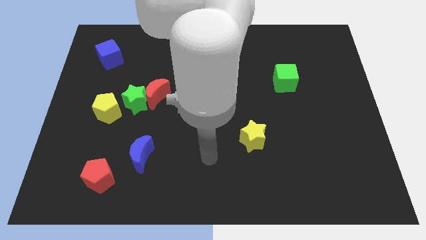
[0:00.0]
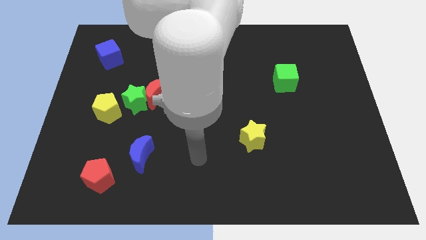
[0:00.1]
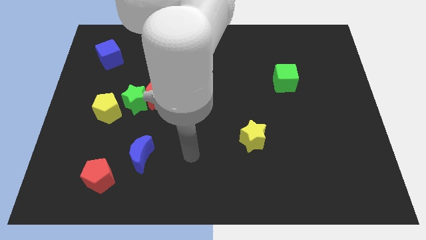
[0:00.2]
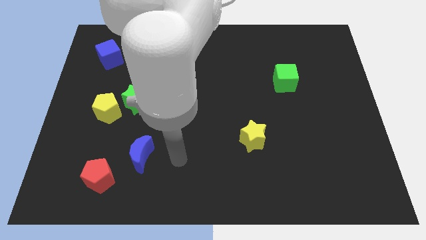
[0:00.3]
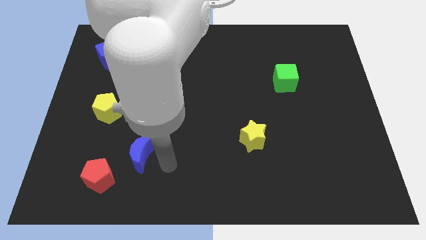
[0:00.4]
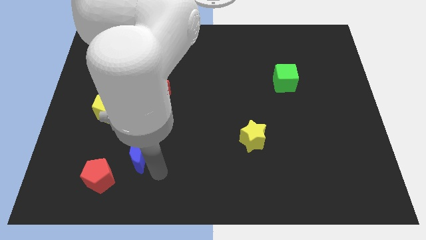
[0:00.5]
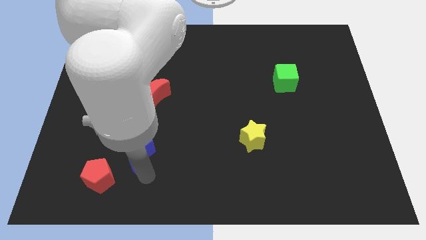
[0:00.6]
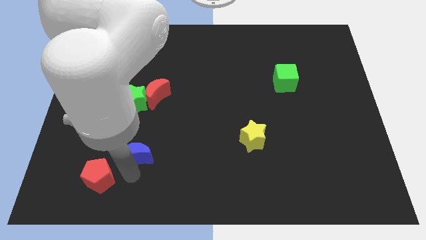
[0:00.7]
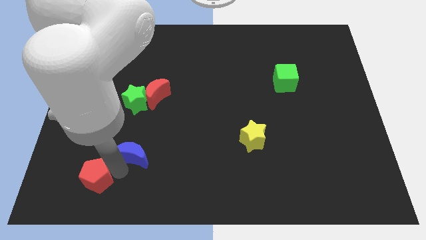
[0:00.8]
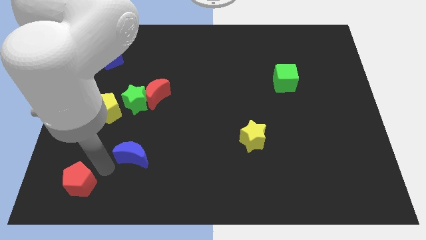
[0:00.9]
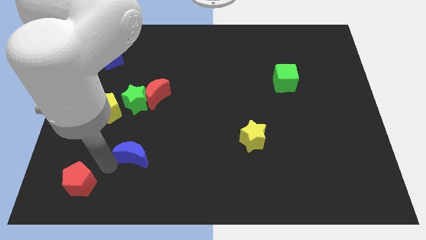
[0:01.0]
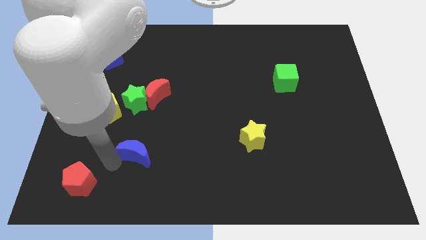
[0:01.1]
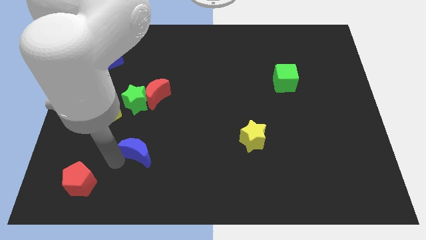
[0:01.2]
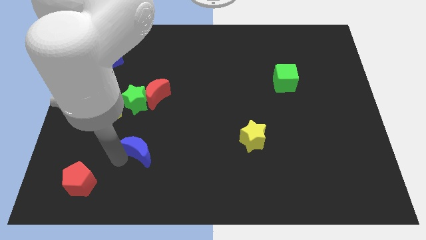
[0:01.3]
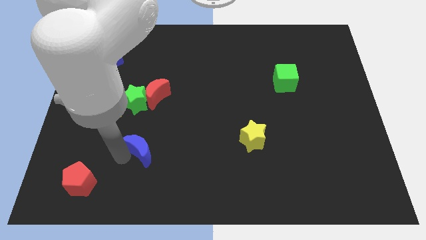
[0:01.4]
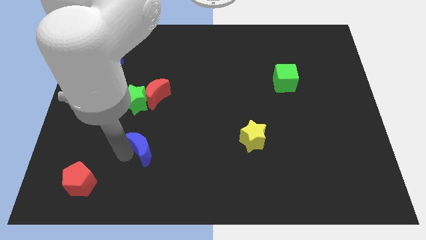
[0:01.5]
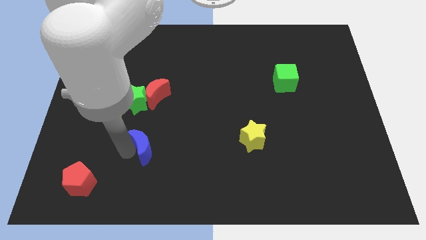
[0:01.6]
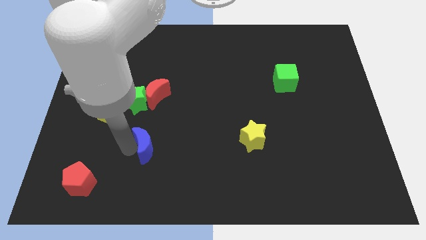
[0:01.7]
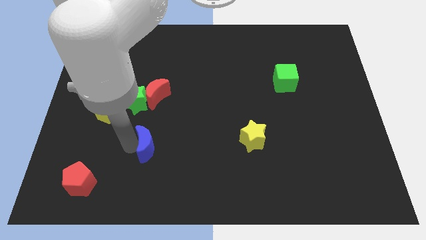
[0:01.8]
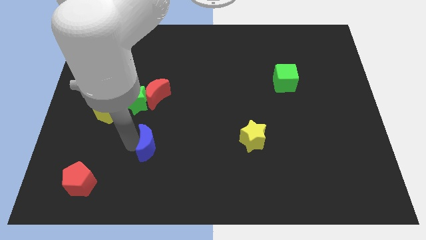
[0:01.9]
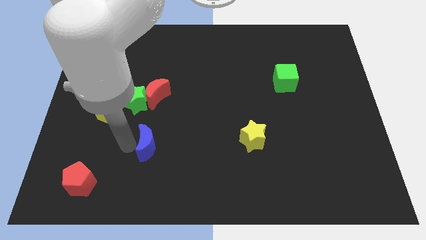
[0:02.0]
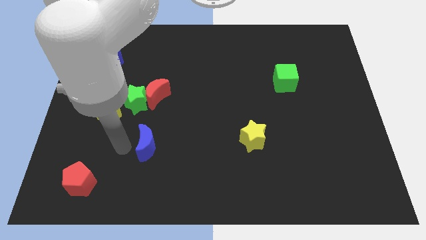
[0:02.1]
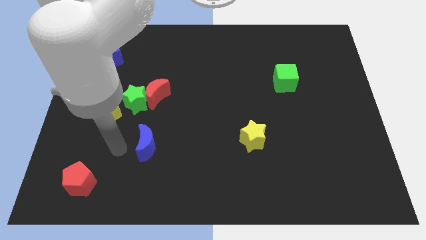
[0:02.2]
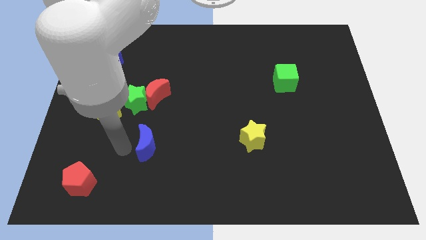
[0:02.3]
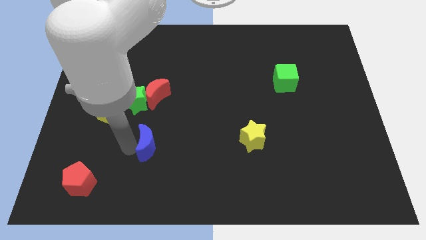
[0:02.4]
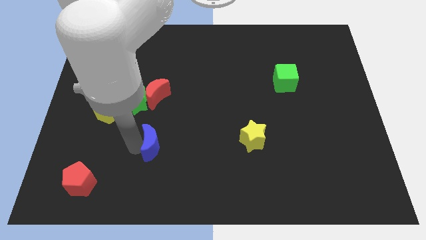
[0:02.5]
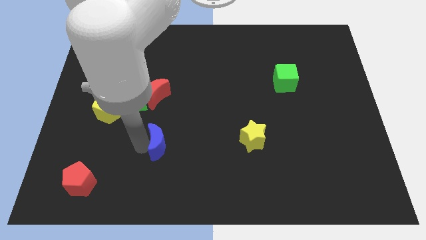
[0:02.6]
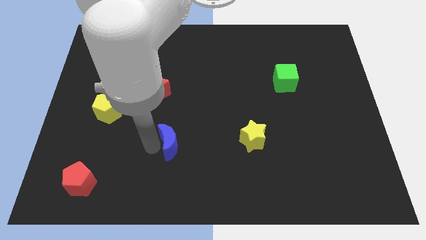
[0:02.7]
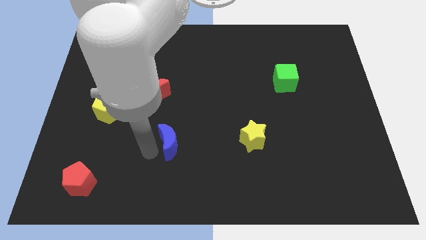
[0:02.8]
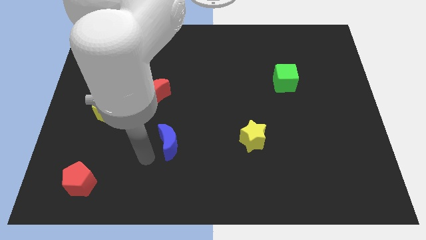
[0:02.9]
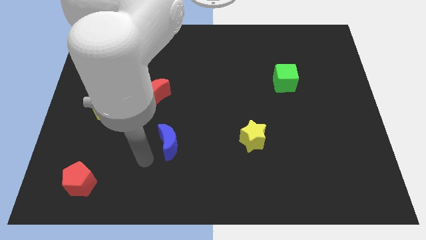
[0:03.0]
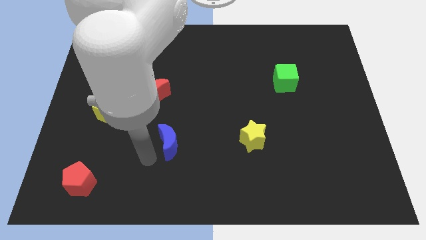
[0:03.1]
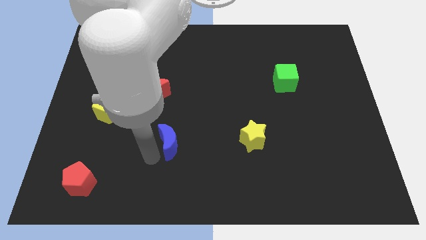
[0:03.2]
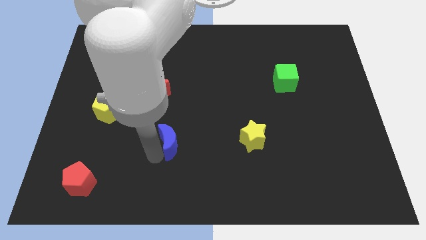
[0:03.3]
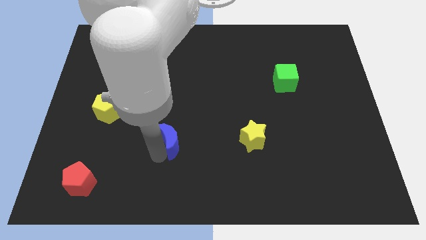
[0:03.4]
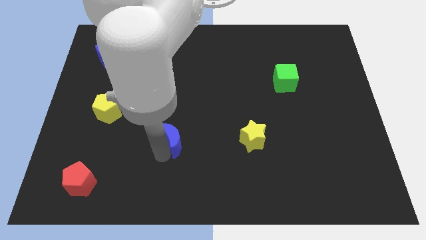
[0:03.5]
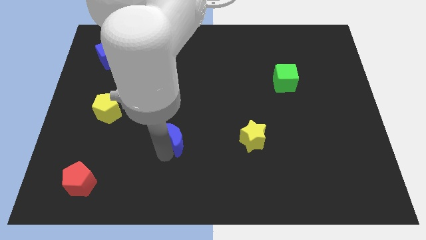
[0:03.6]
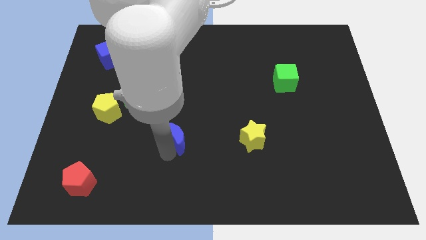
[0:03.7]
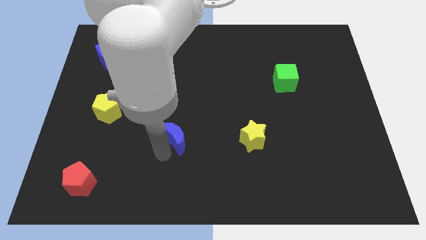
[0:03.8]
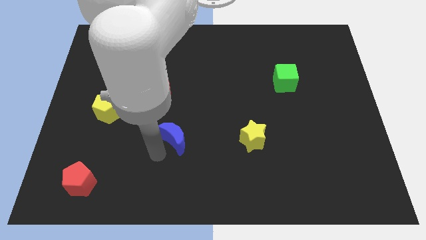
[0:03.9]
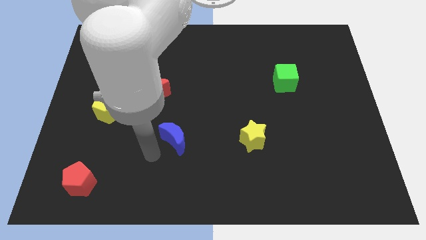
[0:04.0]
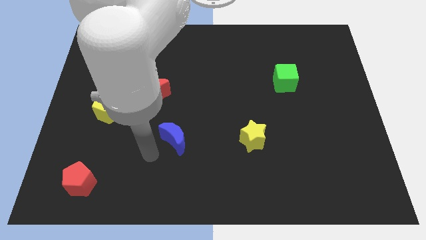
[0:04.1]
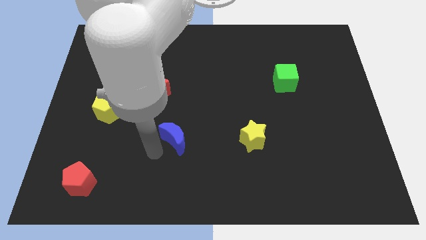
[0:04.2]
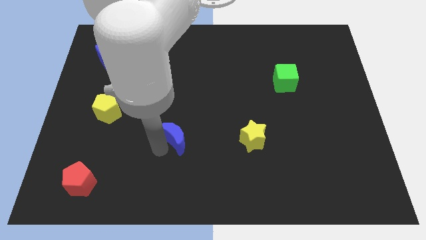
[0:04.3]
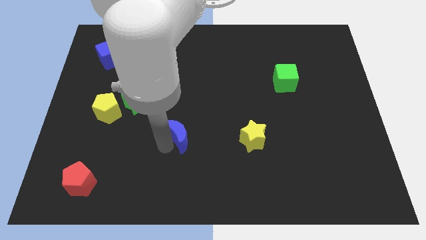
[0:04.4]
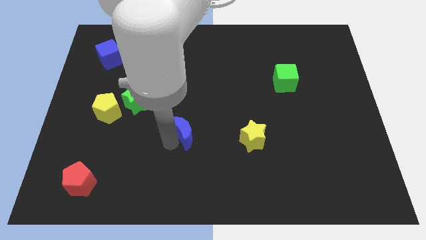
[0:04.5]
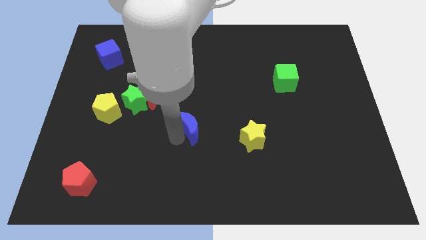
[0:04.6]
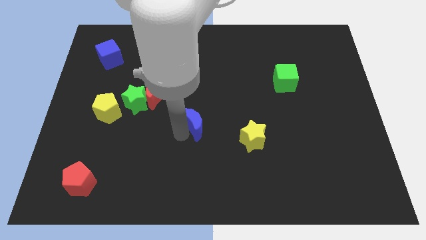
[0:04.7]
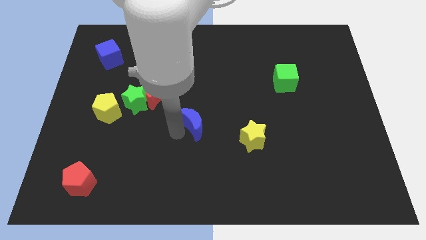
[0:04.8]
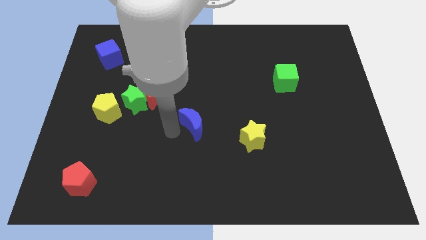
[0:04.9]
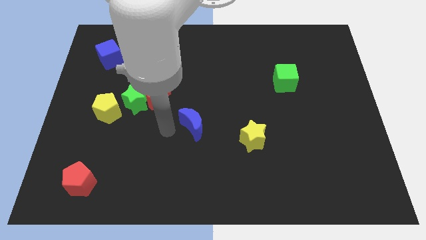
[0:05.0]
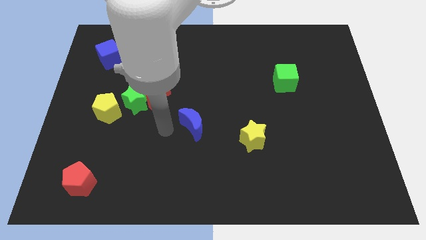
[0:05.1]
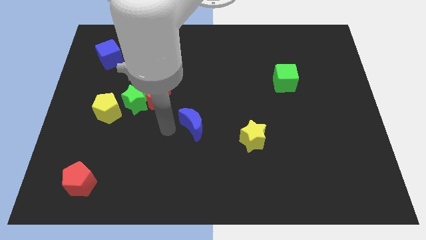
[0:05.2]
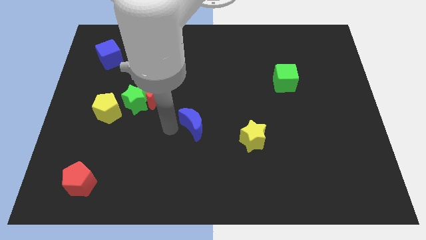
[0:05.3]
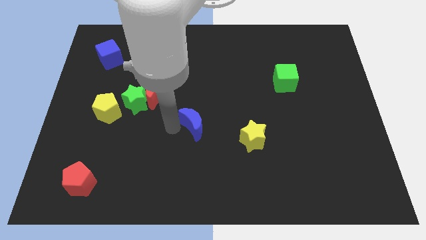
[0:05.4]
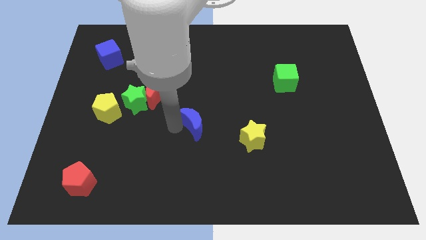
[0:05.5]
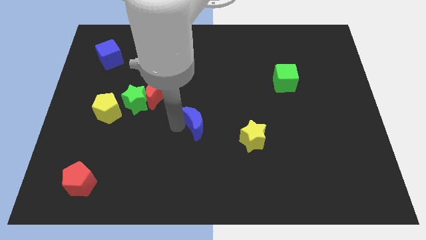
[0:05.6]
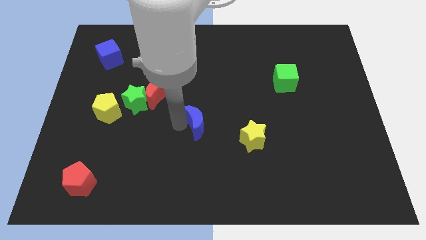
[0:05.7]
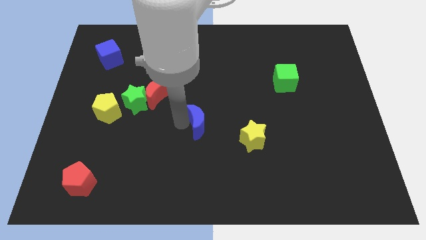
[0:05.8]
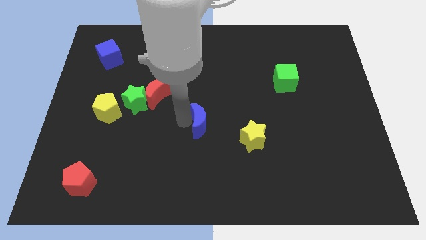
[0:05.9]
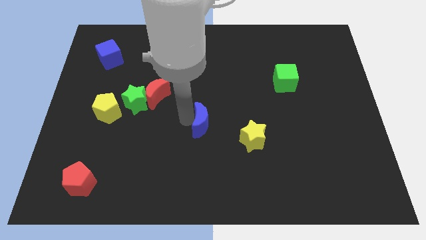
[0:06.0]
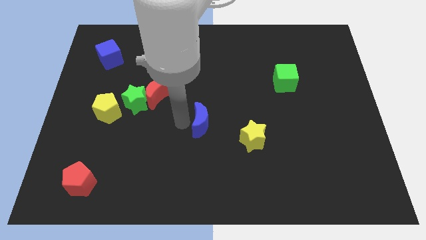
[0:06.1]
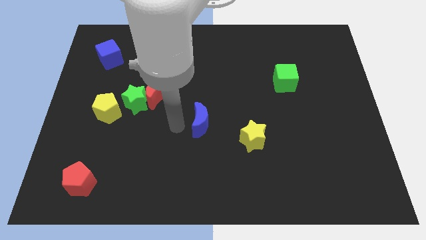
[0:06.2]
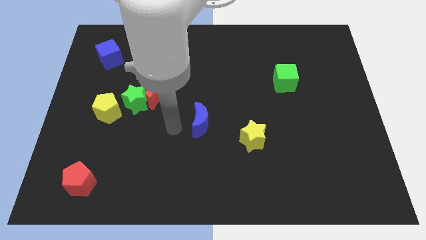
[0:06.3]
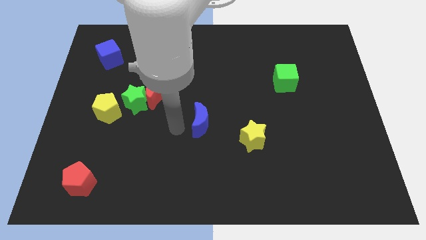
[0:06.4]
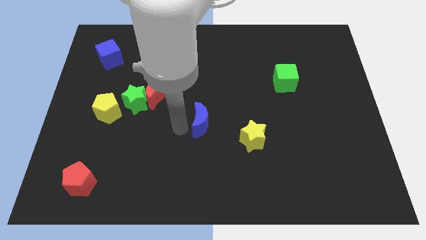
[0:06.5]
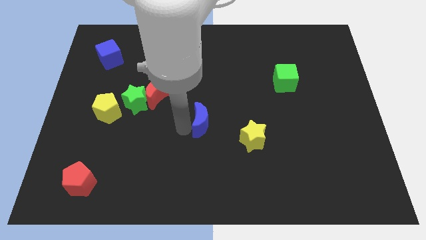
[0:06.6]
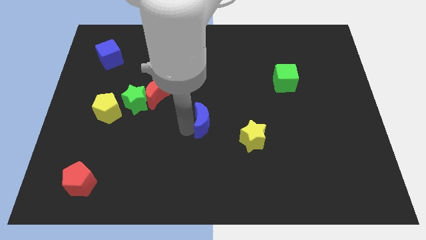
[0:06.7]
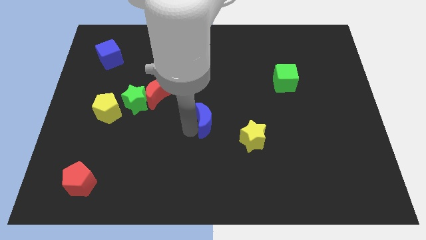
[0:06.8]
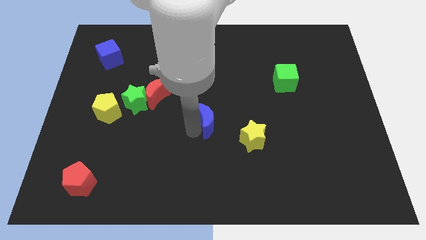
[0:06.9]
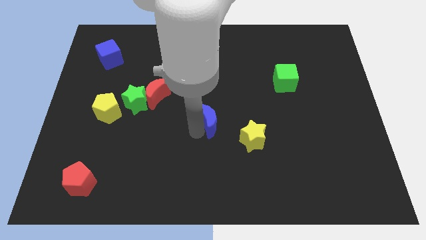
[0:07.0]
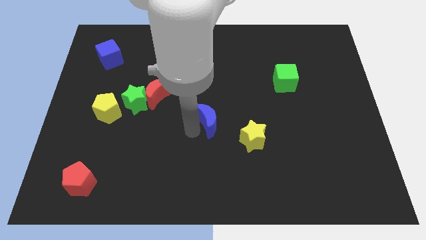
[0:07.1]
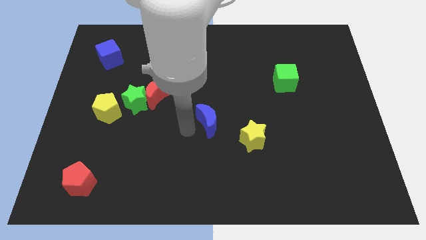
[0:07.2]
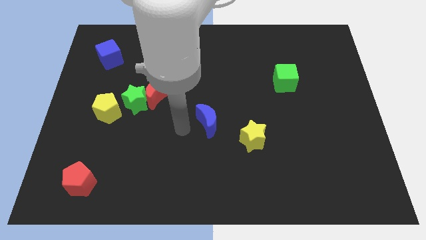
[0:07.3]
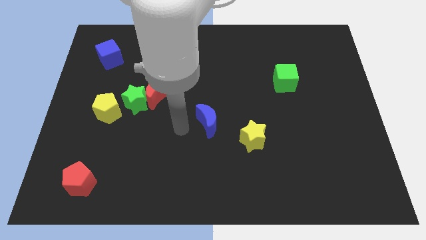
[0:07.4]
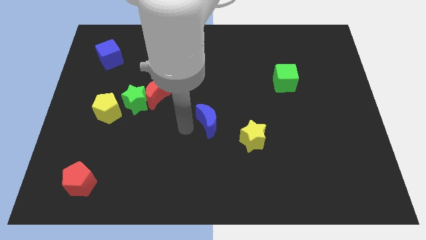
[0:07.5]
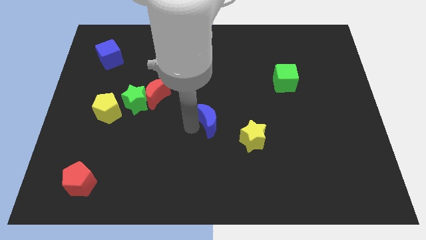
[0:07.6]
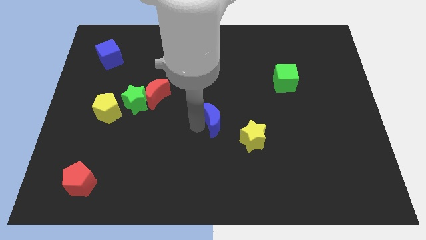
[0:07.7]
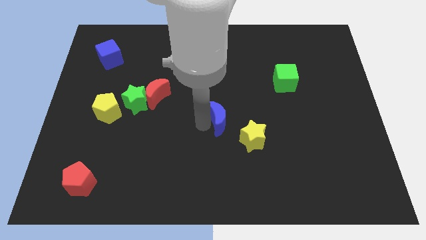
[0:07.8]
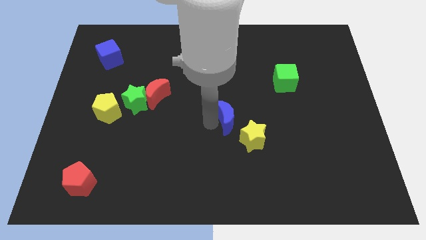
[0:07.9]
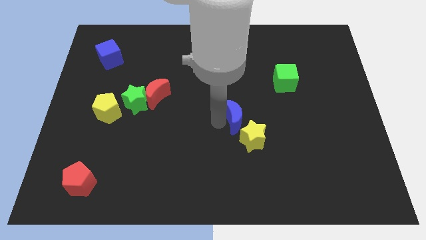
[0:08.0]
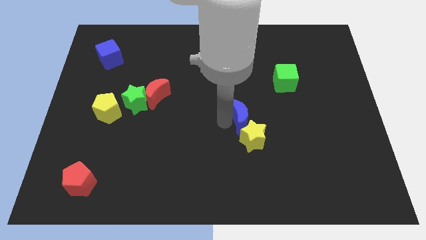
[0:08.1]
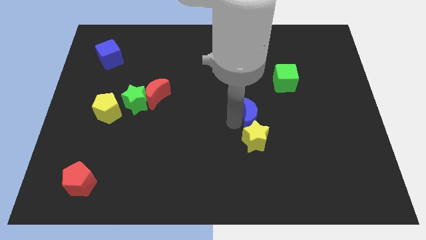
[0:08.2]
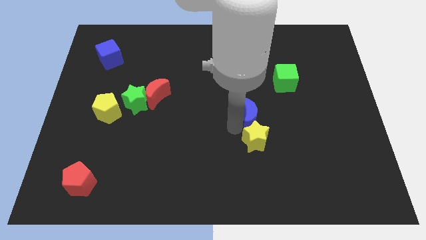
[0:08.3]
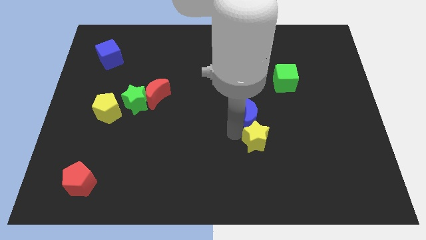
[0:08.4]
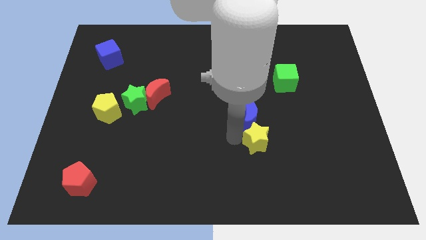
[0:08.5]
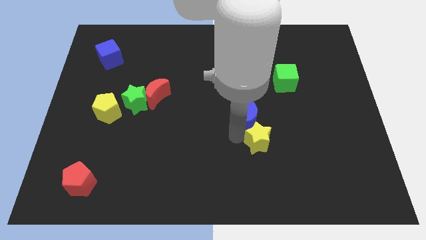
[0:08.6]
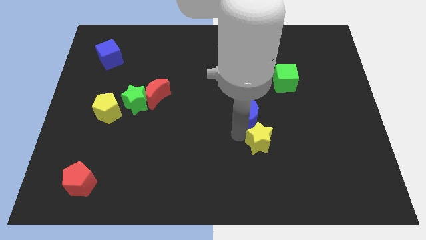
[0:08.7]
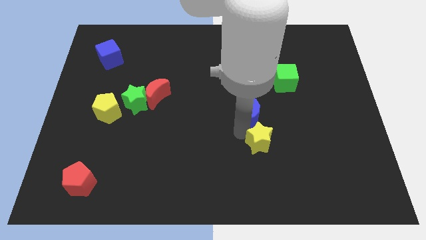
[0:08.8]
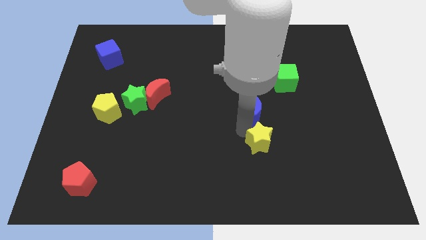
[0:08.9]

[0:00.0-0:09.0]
slide the blue moon to the bottom left of the green cube
